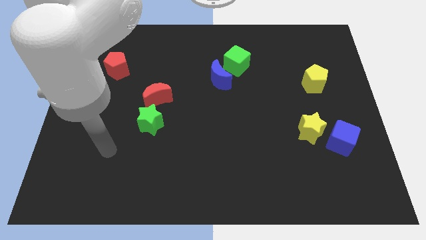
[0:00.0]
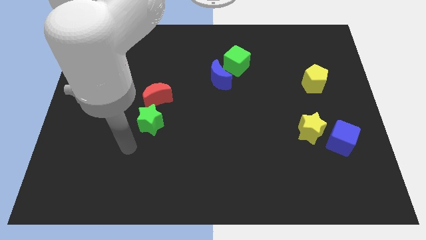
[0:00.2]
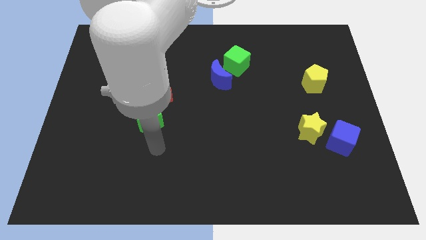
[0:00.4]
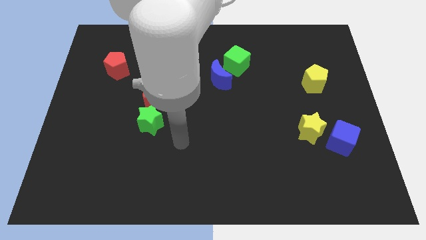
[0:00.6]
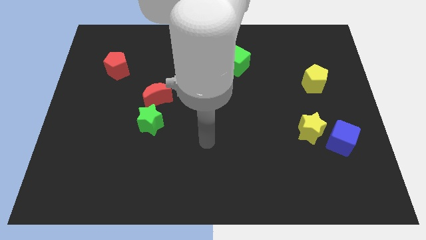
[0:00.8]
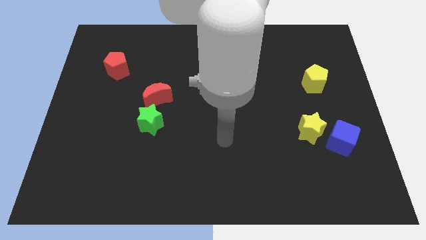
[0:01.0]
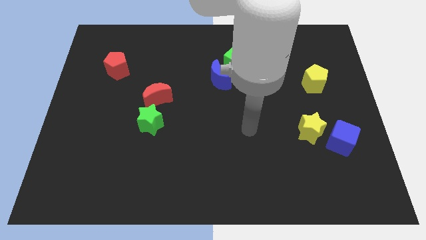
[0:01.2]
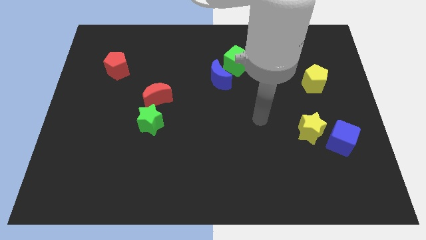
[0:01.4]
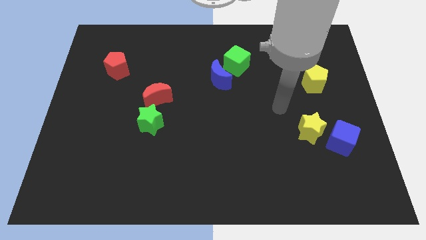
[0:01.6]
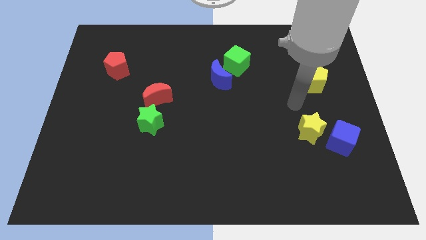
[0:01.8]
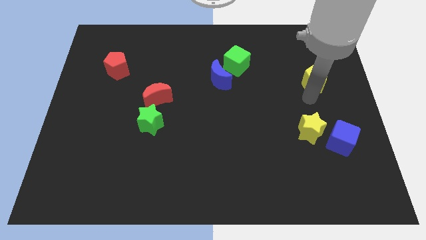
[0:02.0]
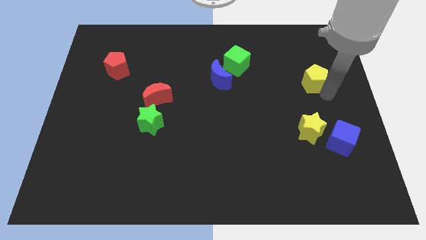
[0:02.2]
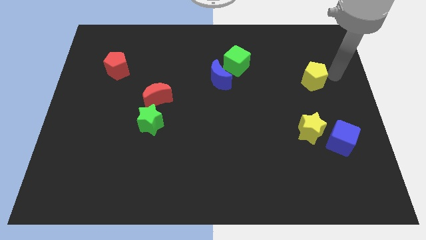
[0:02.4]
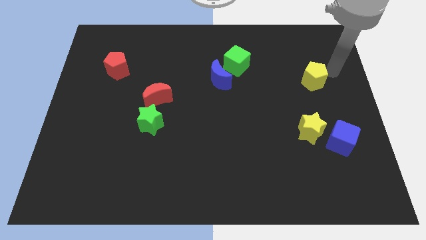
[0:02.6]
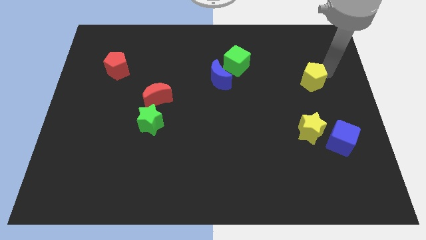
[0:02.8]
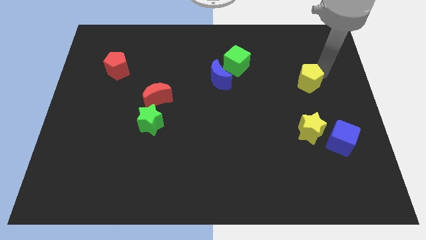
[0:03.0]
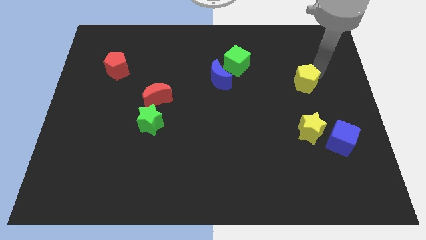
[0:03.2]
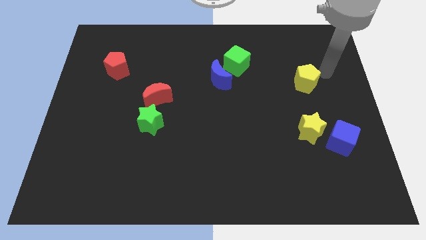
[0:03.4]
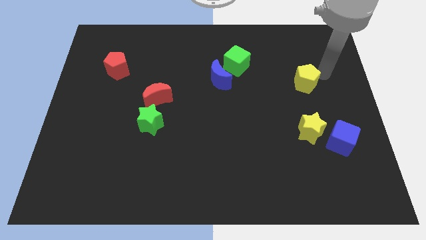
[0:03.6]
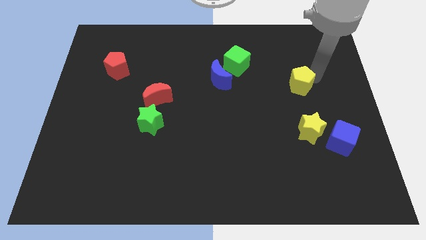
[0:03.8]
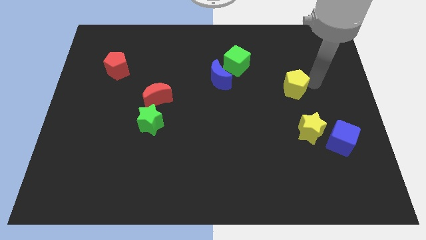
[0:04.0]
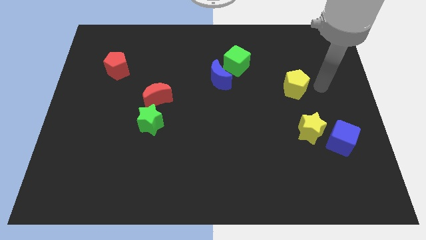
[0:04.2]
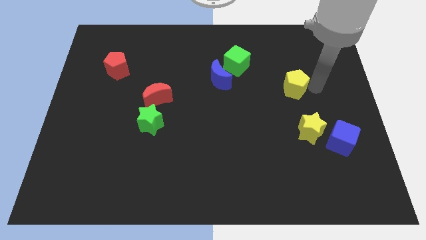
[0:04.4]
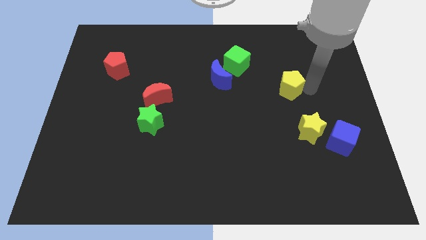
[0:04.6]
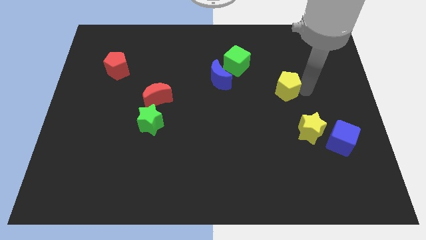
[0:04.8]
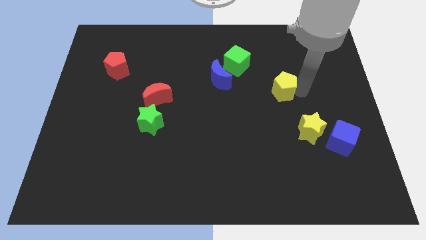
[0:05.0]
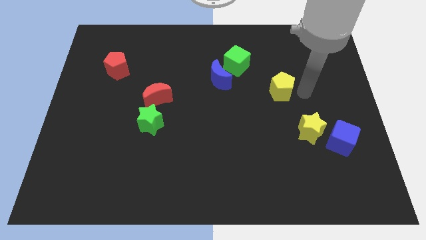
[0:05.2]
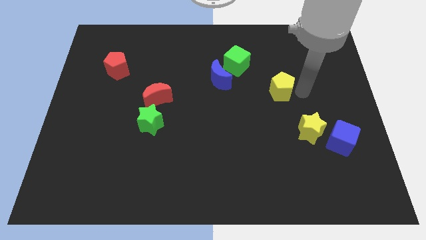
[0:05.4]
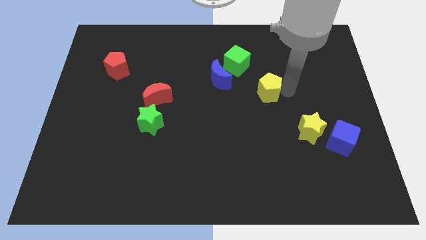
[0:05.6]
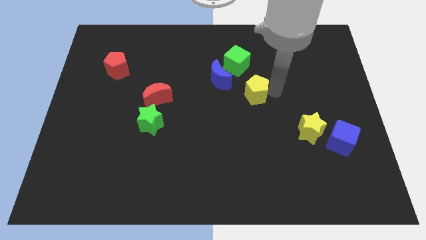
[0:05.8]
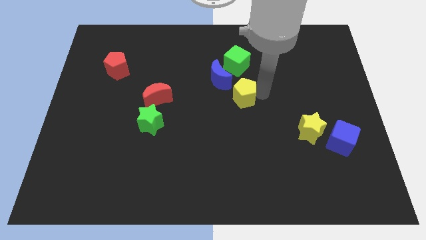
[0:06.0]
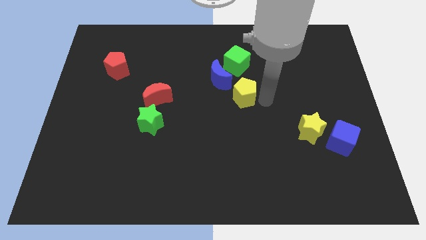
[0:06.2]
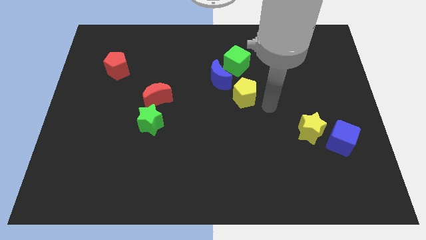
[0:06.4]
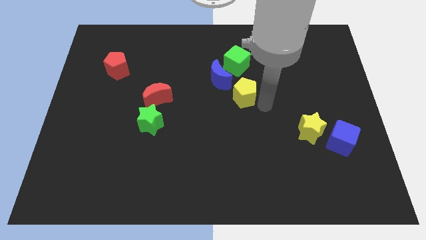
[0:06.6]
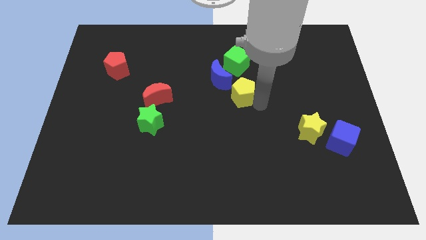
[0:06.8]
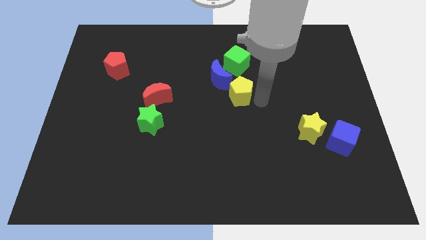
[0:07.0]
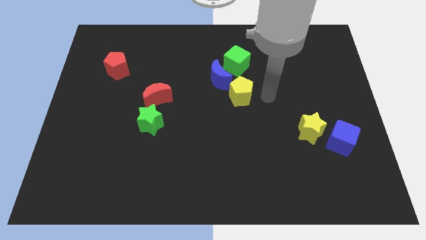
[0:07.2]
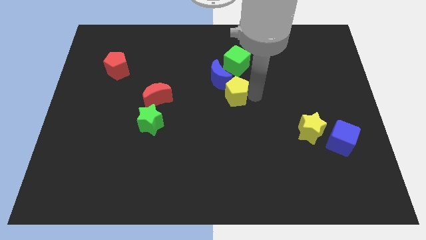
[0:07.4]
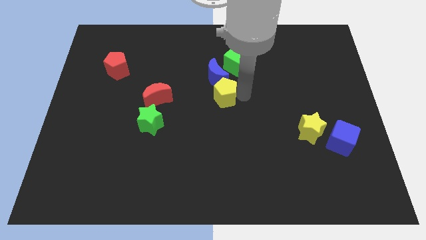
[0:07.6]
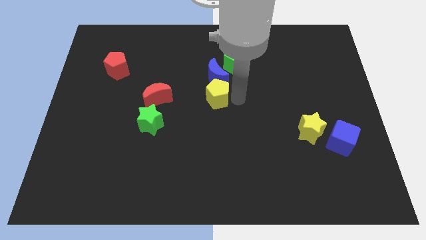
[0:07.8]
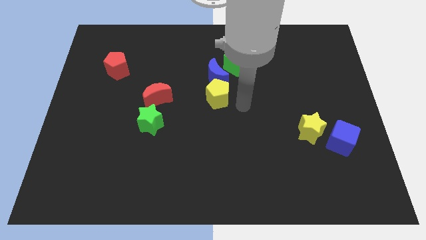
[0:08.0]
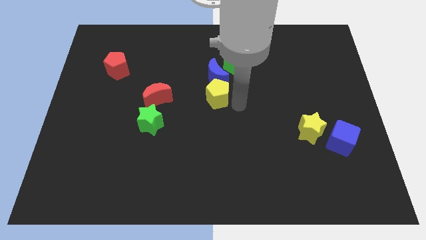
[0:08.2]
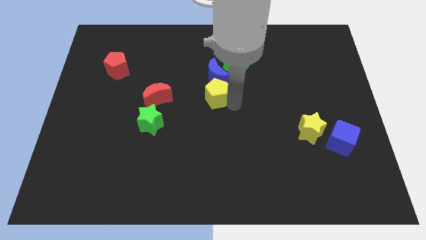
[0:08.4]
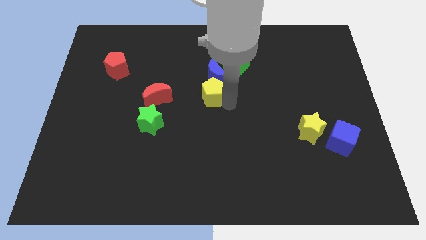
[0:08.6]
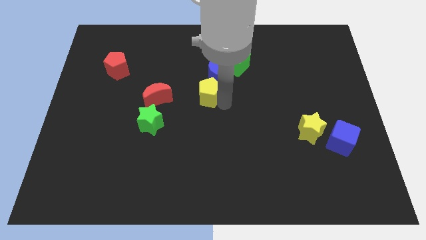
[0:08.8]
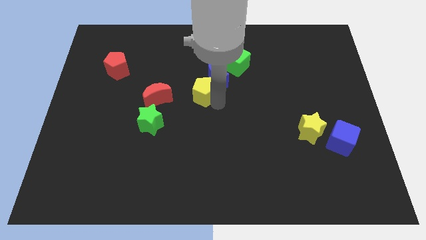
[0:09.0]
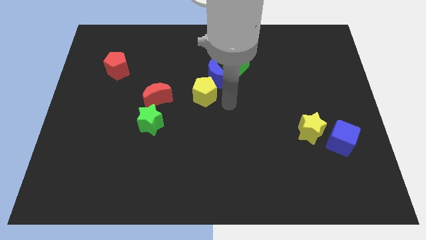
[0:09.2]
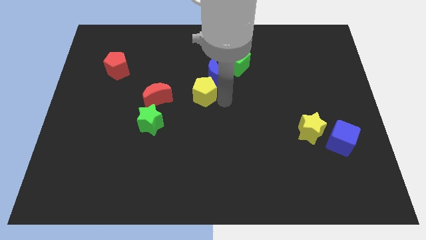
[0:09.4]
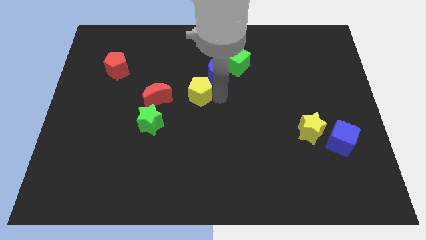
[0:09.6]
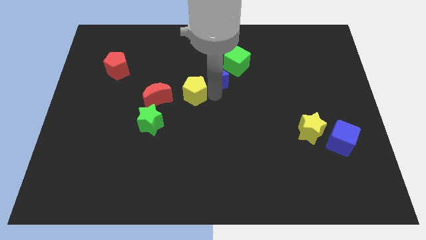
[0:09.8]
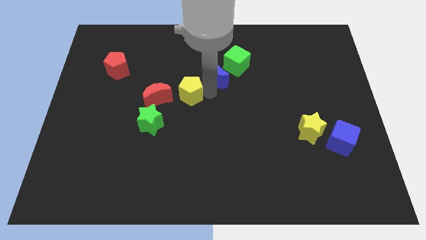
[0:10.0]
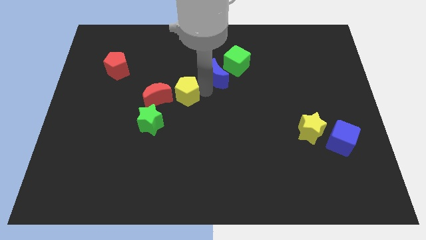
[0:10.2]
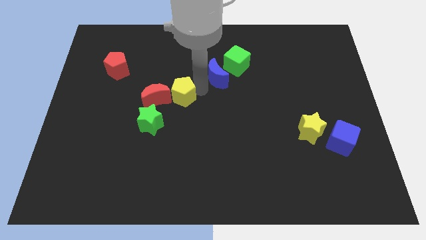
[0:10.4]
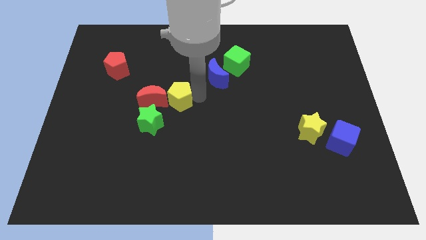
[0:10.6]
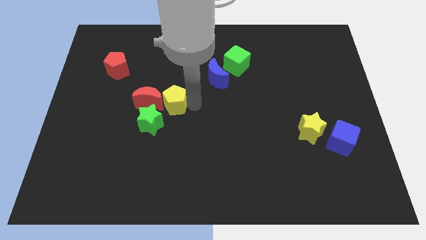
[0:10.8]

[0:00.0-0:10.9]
slide the yellow pentagon above the green star

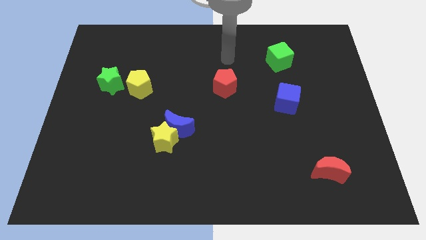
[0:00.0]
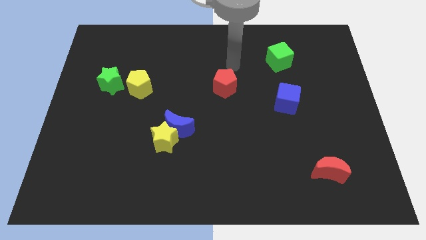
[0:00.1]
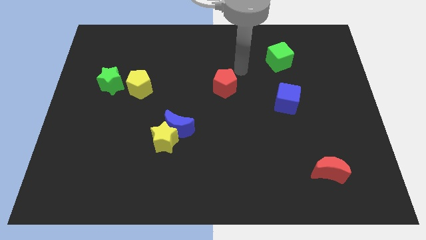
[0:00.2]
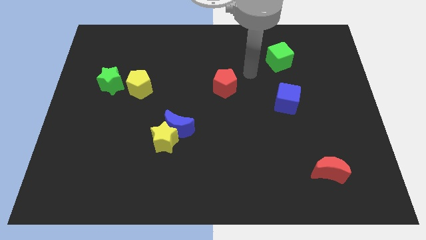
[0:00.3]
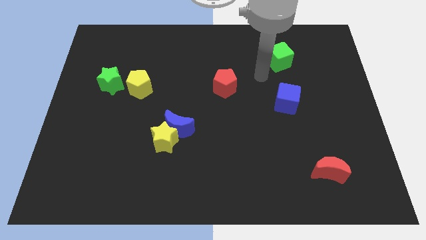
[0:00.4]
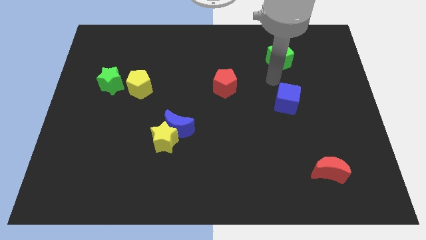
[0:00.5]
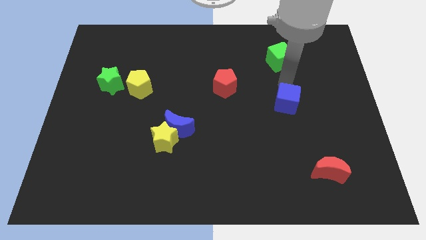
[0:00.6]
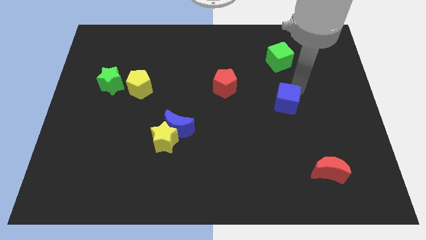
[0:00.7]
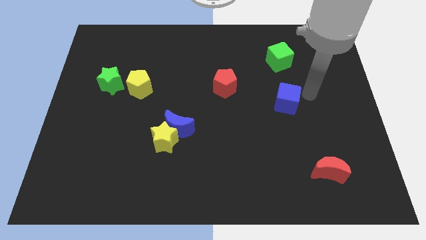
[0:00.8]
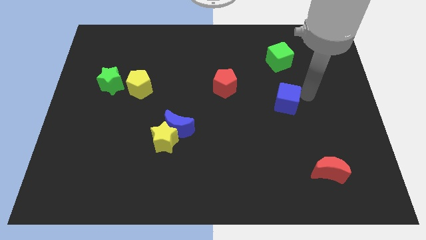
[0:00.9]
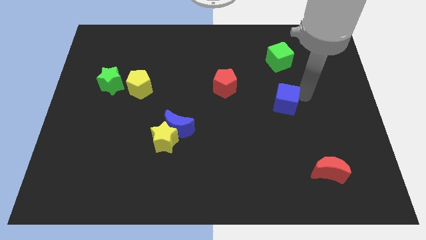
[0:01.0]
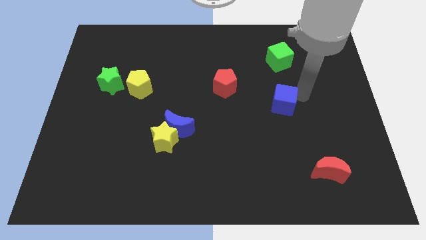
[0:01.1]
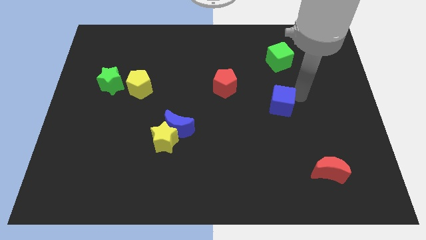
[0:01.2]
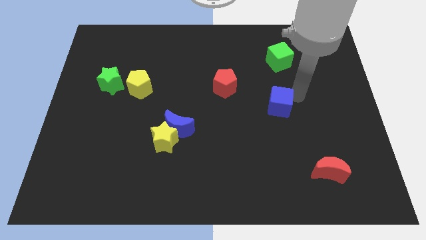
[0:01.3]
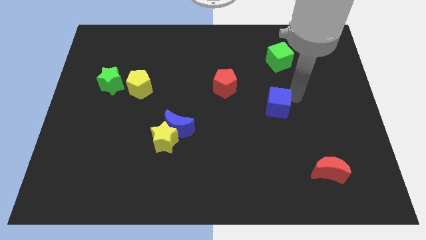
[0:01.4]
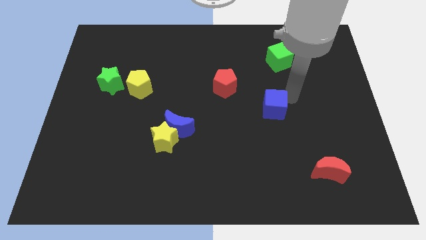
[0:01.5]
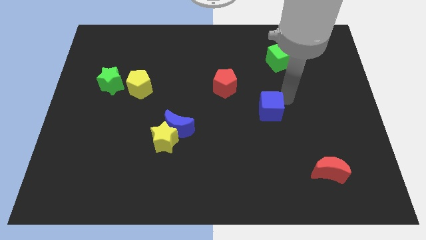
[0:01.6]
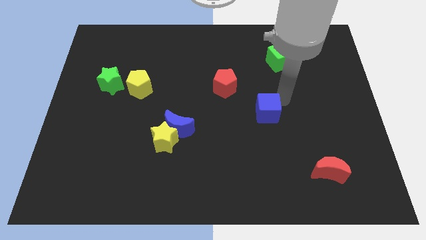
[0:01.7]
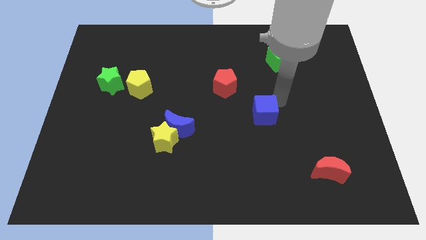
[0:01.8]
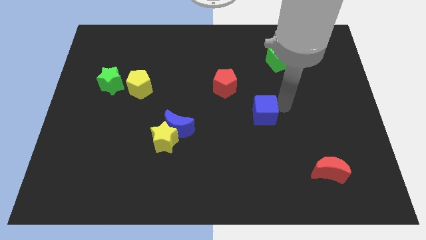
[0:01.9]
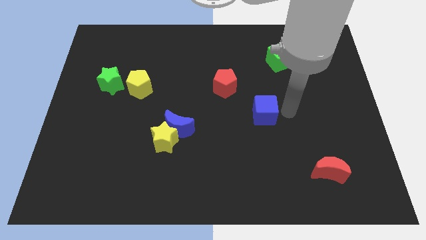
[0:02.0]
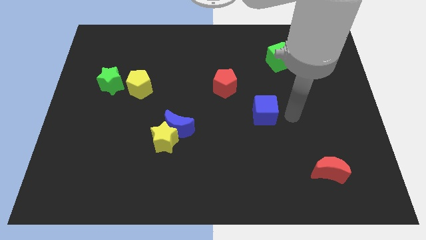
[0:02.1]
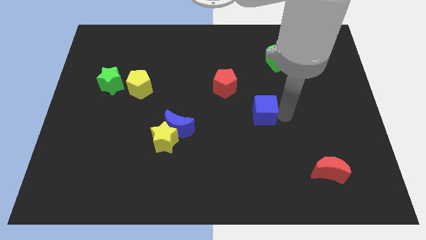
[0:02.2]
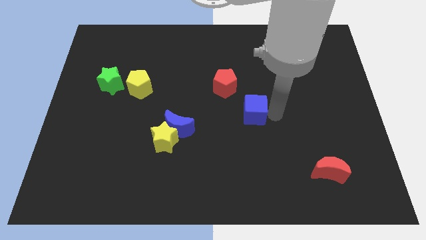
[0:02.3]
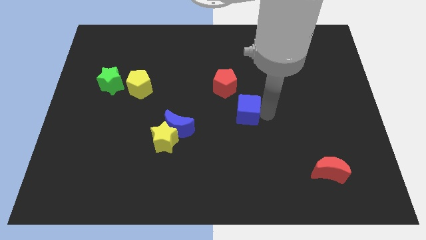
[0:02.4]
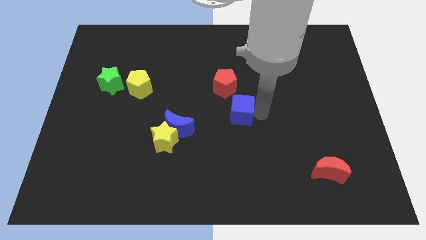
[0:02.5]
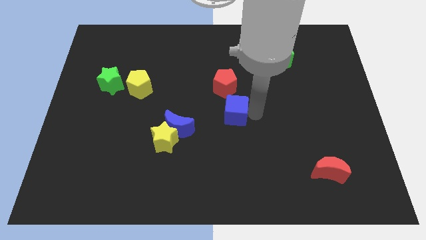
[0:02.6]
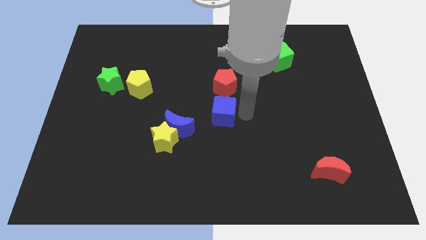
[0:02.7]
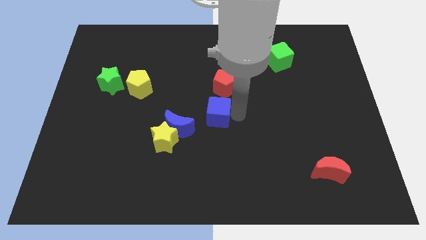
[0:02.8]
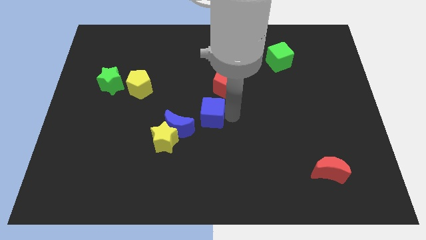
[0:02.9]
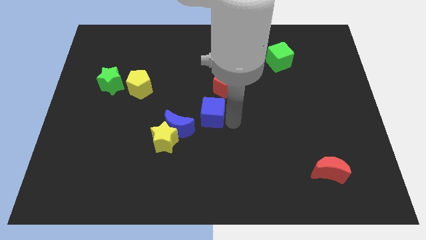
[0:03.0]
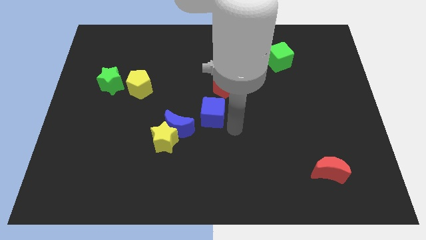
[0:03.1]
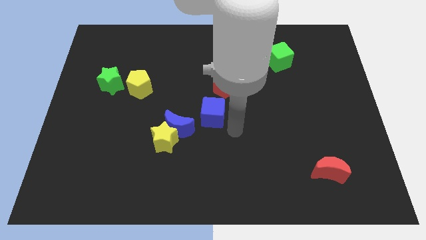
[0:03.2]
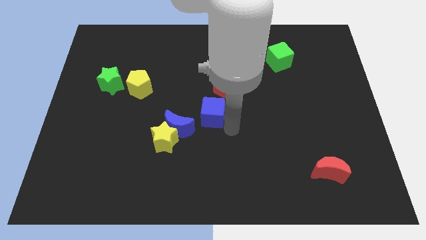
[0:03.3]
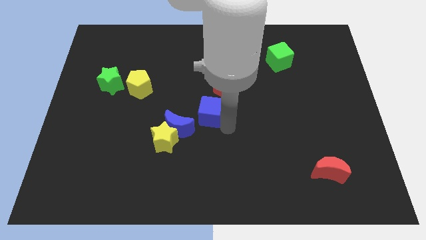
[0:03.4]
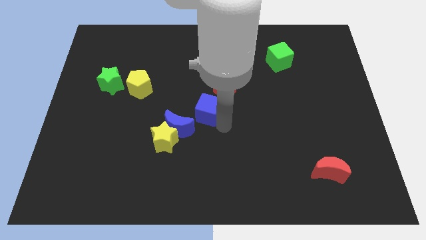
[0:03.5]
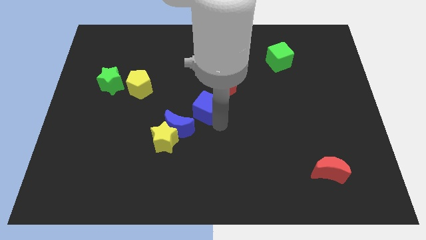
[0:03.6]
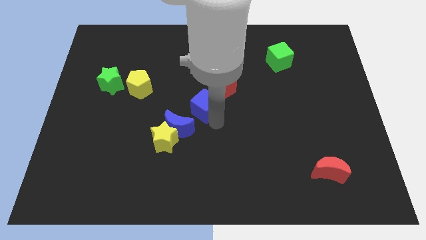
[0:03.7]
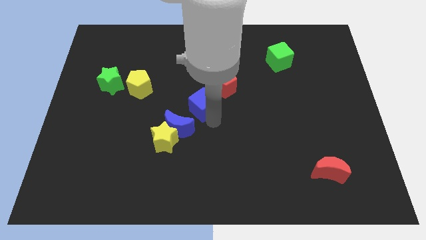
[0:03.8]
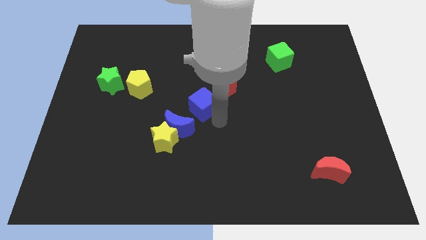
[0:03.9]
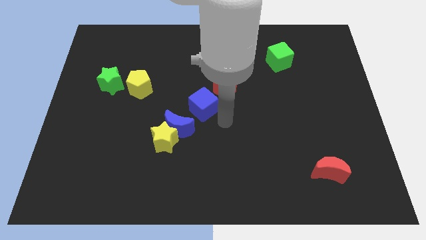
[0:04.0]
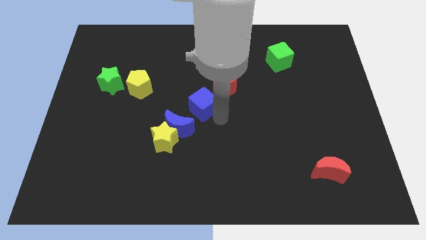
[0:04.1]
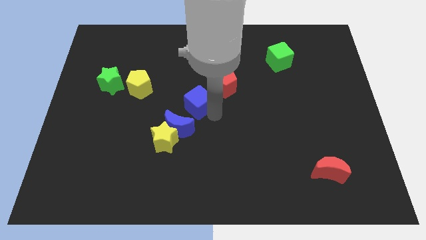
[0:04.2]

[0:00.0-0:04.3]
move the blue cube above the blue moon
